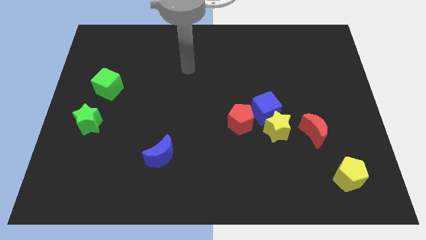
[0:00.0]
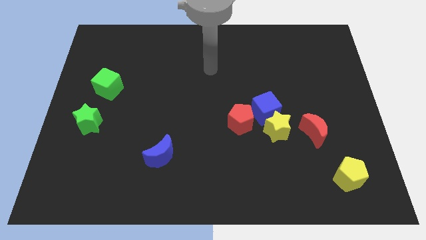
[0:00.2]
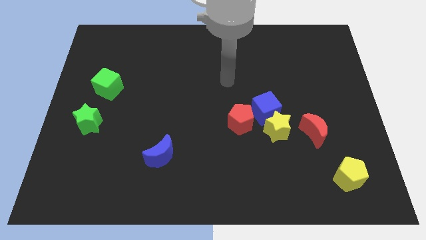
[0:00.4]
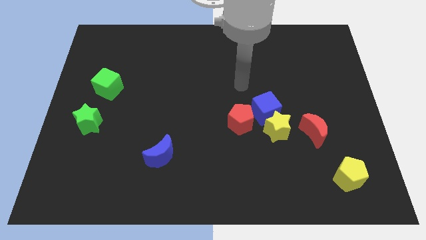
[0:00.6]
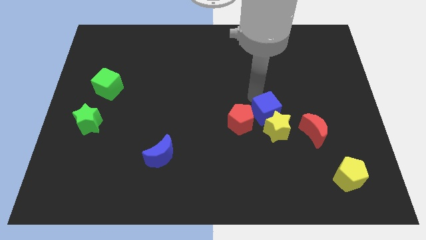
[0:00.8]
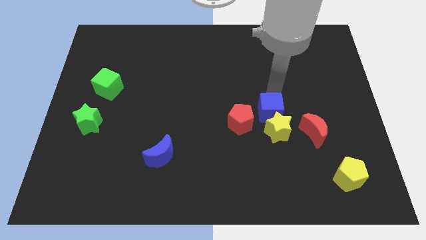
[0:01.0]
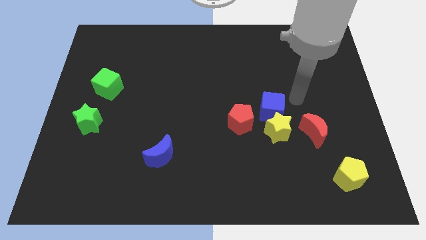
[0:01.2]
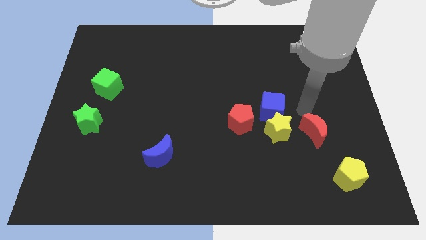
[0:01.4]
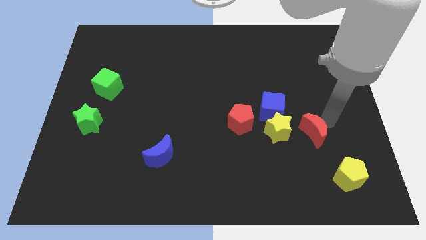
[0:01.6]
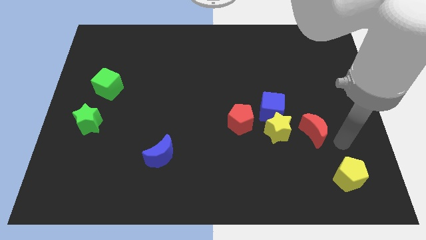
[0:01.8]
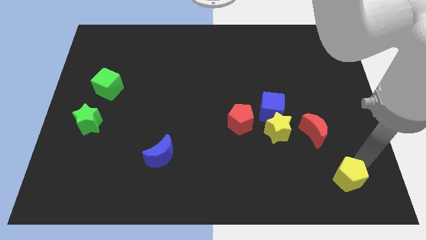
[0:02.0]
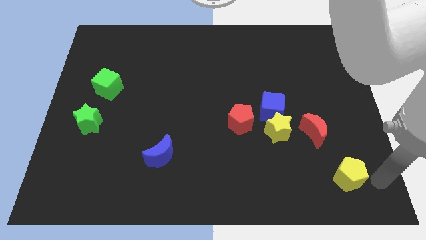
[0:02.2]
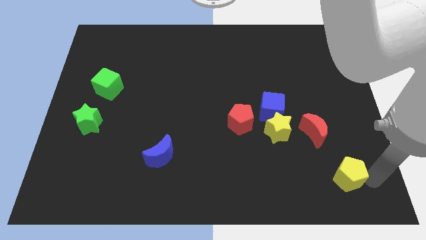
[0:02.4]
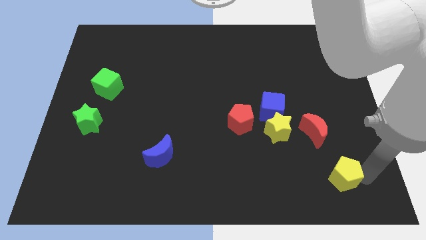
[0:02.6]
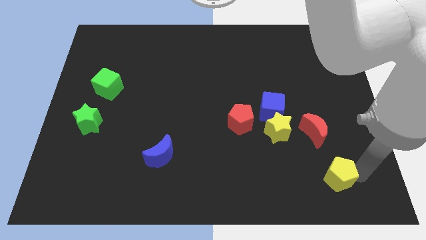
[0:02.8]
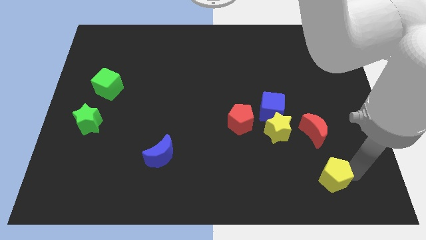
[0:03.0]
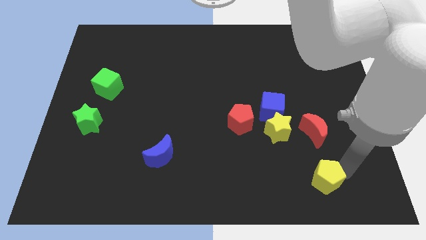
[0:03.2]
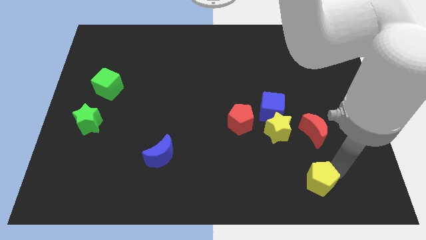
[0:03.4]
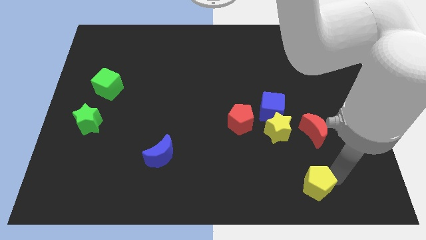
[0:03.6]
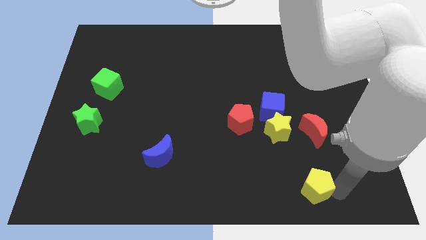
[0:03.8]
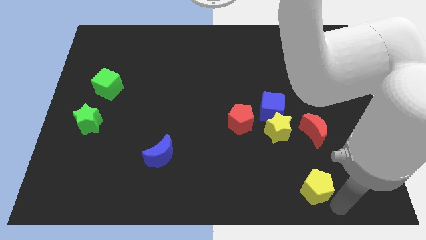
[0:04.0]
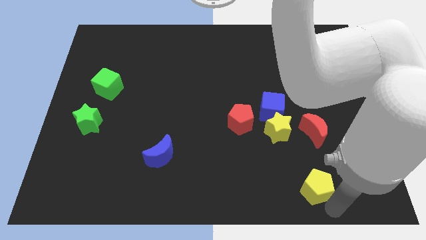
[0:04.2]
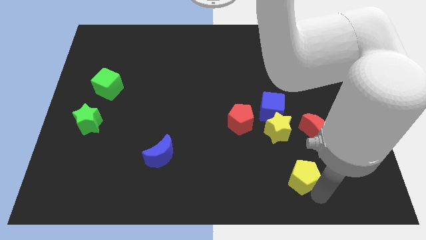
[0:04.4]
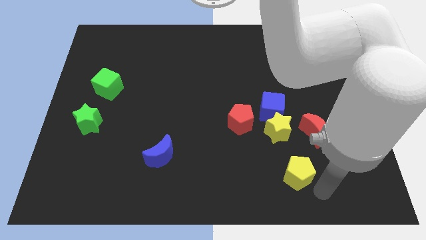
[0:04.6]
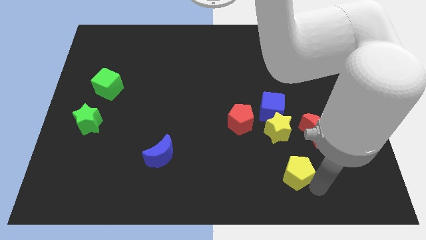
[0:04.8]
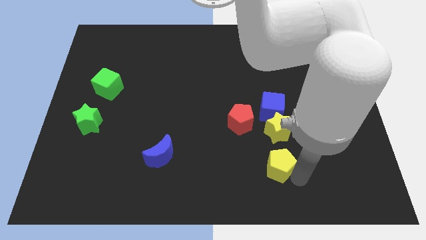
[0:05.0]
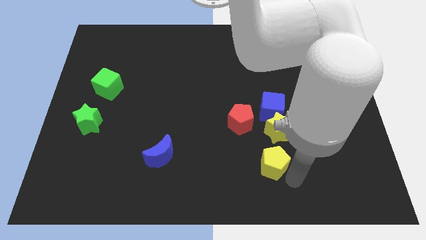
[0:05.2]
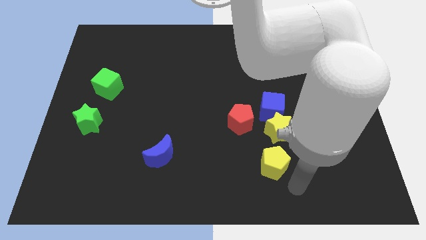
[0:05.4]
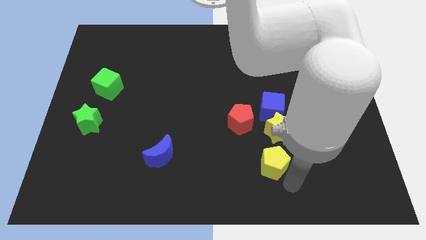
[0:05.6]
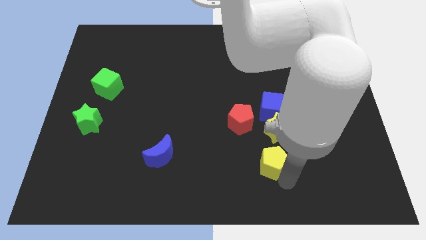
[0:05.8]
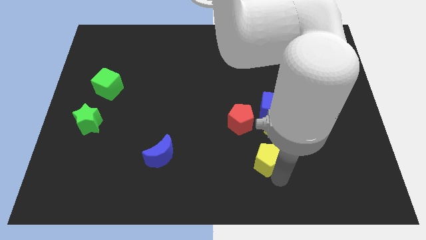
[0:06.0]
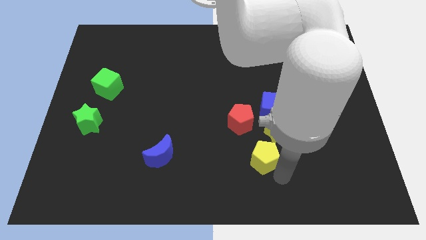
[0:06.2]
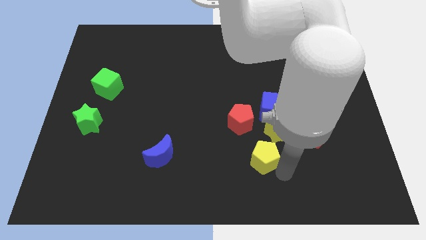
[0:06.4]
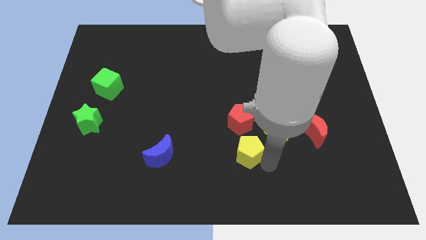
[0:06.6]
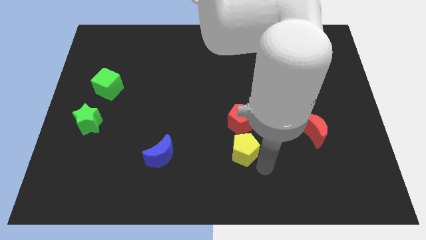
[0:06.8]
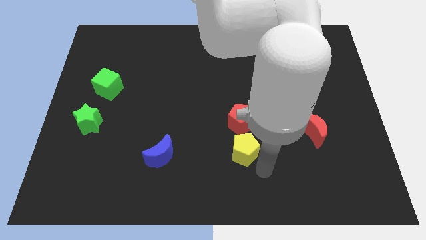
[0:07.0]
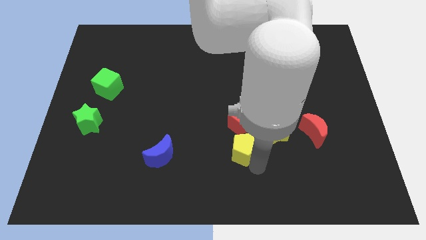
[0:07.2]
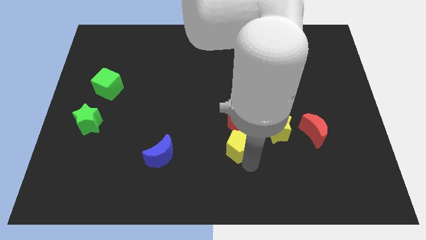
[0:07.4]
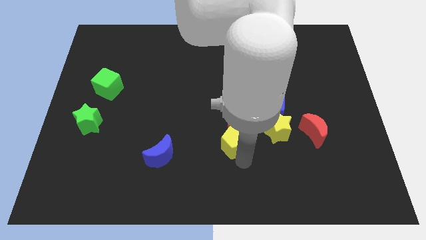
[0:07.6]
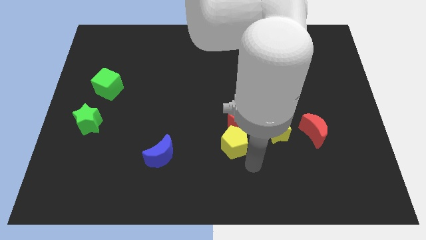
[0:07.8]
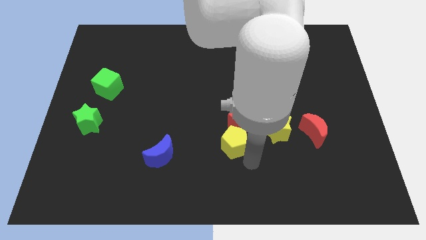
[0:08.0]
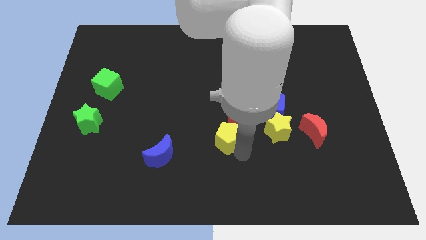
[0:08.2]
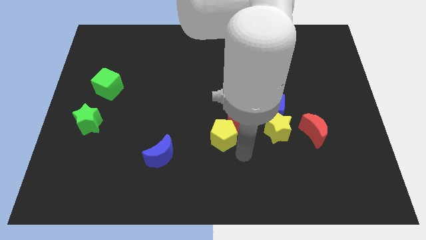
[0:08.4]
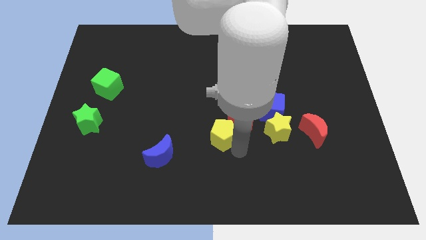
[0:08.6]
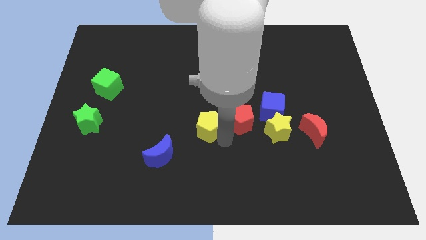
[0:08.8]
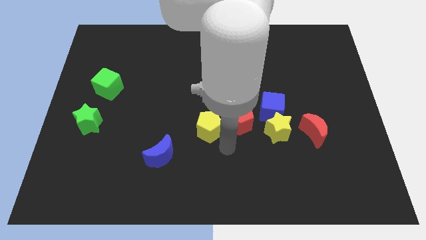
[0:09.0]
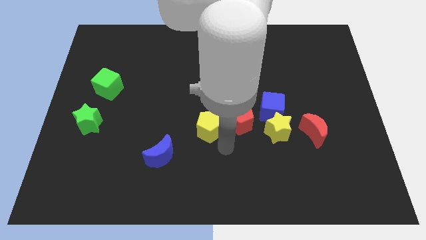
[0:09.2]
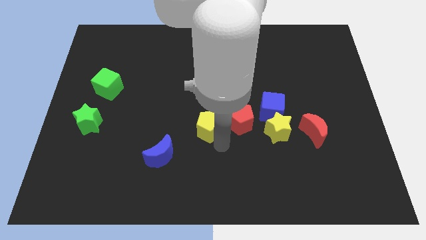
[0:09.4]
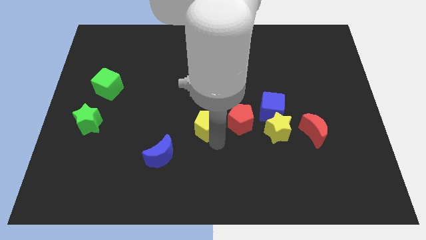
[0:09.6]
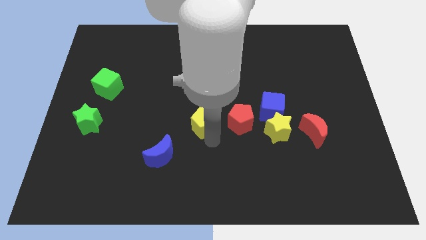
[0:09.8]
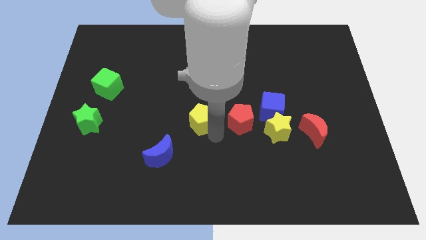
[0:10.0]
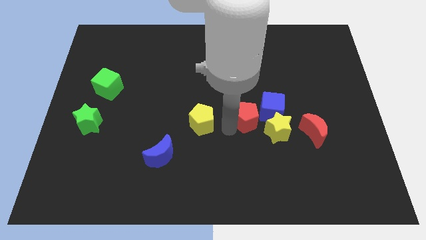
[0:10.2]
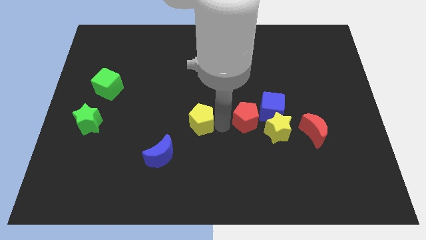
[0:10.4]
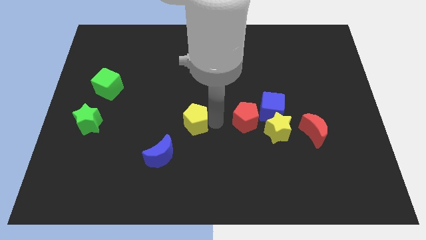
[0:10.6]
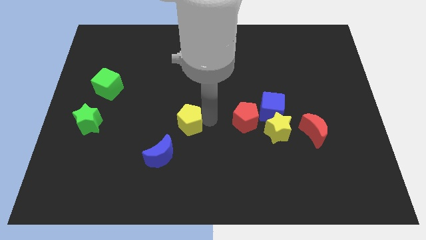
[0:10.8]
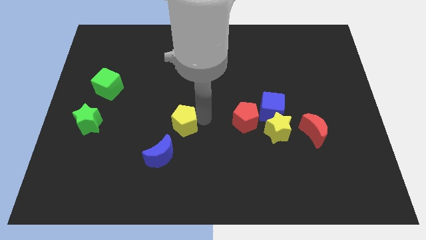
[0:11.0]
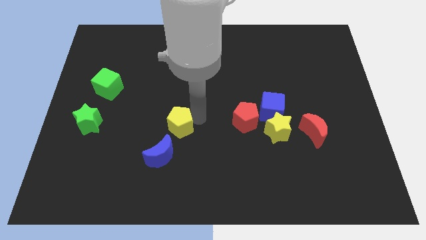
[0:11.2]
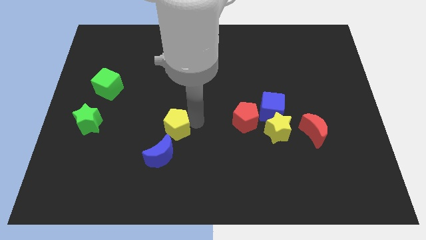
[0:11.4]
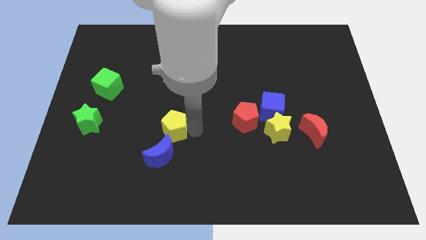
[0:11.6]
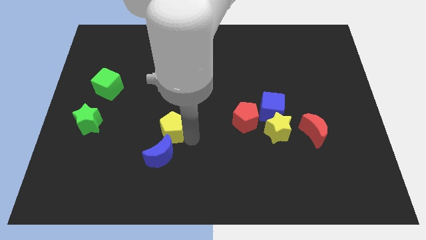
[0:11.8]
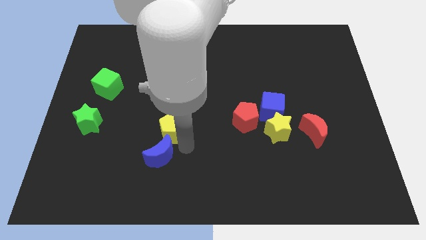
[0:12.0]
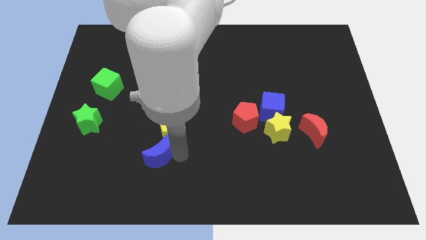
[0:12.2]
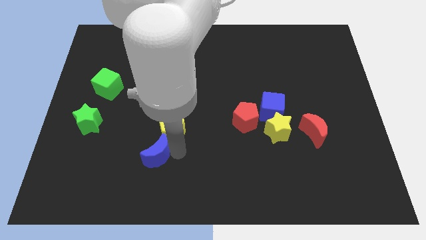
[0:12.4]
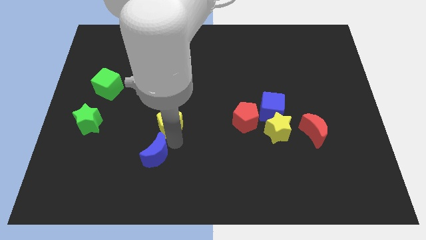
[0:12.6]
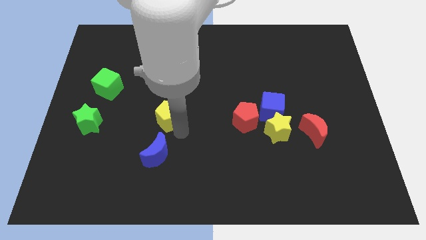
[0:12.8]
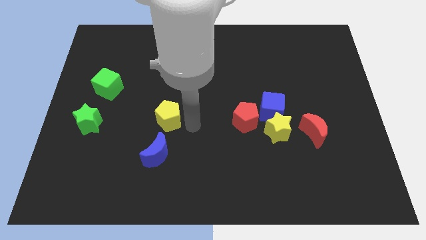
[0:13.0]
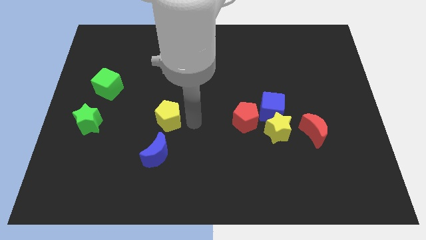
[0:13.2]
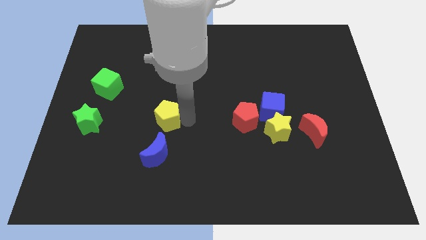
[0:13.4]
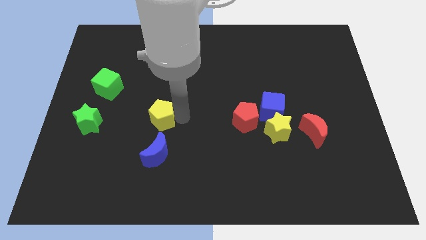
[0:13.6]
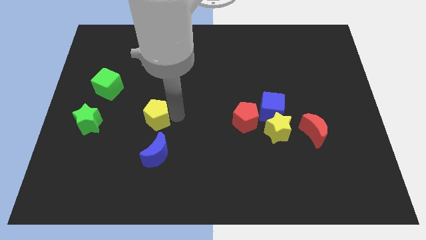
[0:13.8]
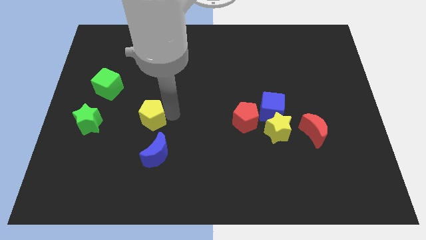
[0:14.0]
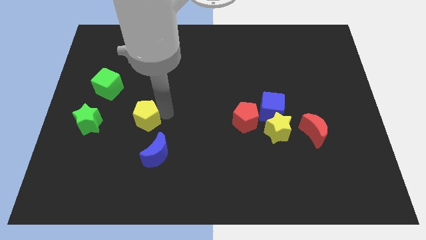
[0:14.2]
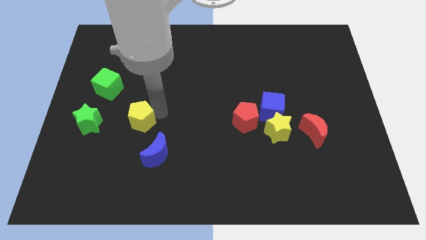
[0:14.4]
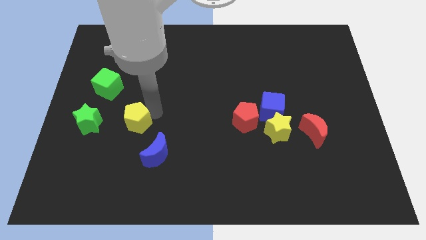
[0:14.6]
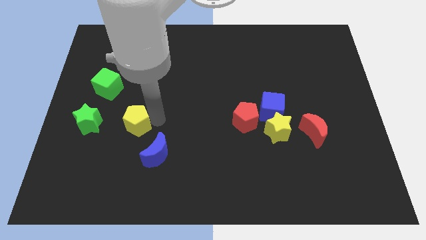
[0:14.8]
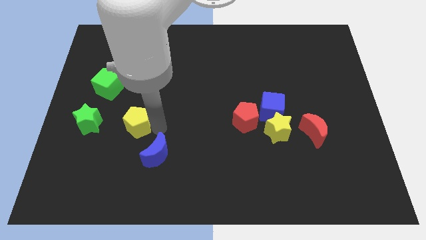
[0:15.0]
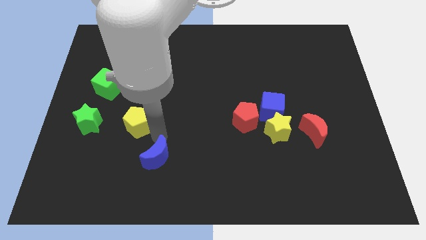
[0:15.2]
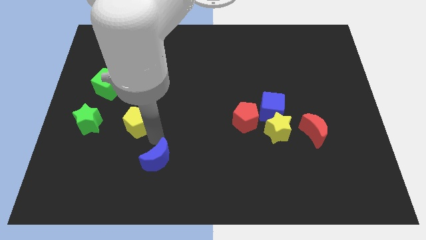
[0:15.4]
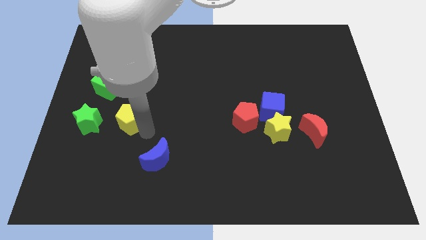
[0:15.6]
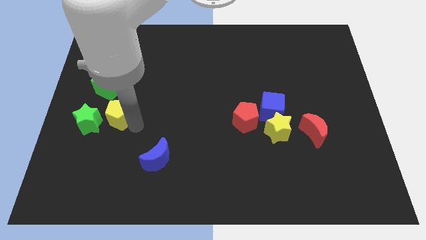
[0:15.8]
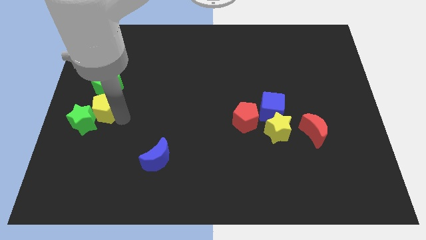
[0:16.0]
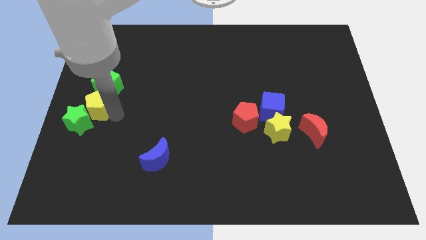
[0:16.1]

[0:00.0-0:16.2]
put the yellow pentagon to the center left
